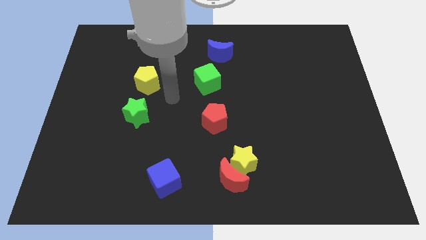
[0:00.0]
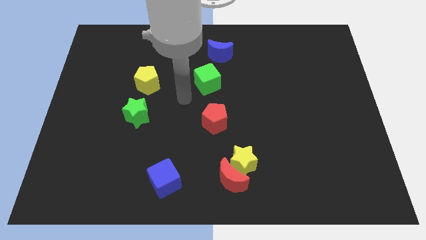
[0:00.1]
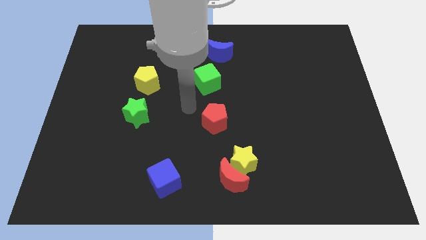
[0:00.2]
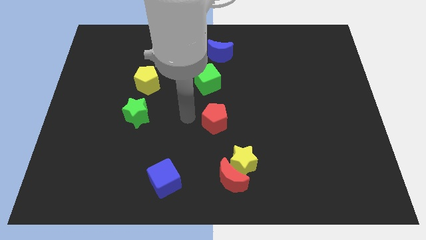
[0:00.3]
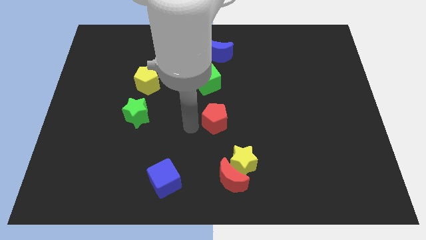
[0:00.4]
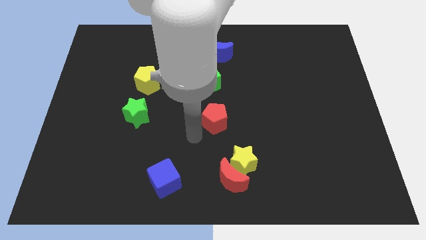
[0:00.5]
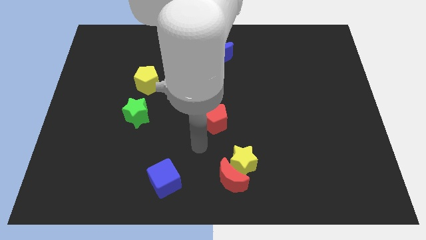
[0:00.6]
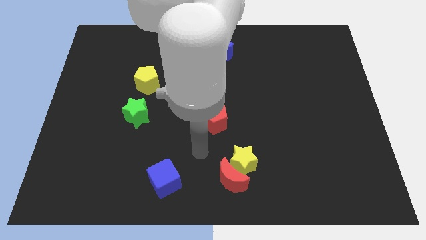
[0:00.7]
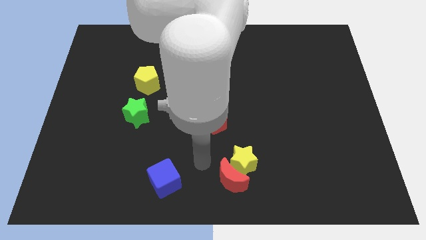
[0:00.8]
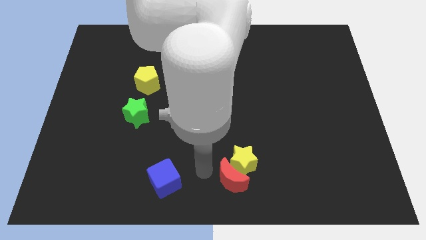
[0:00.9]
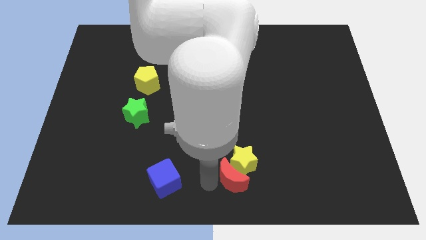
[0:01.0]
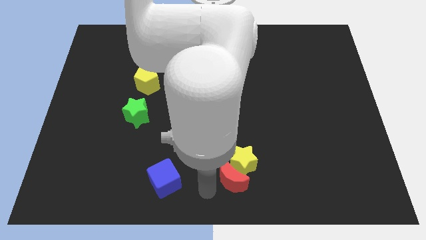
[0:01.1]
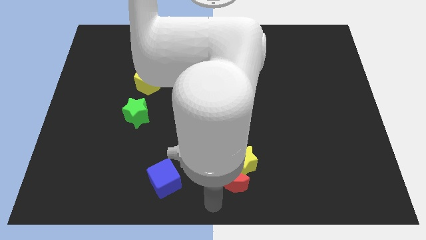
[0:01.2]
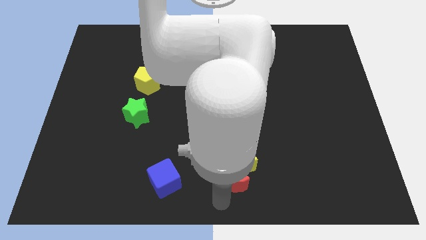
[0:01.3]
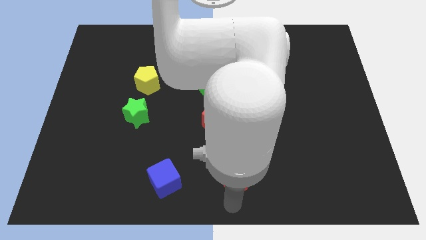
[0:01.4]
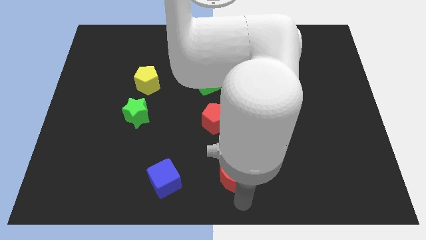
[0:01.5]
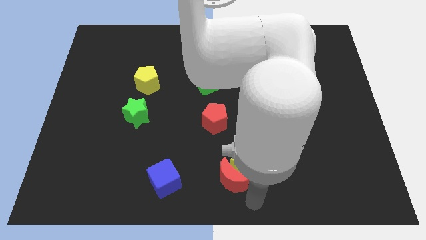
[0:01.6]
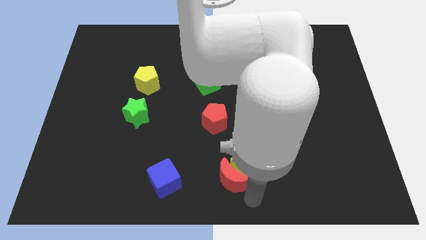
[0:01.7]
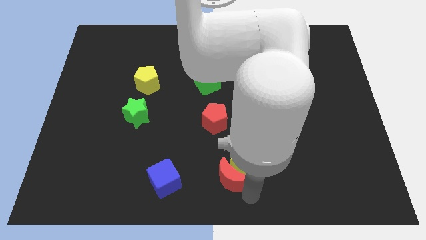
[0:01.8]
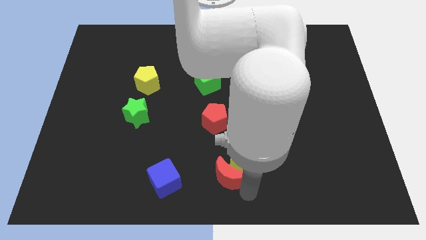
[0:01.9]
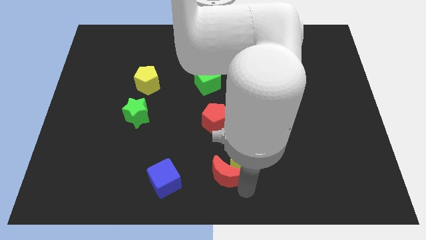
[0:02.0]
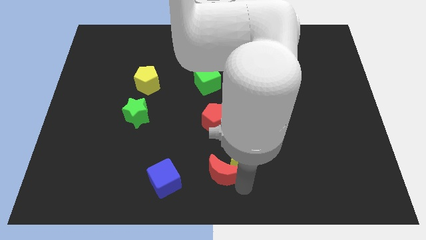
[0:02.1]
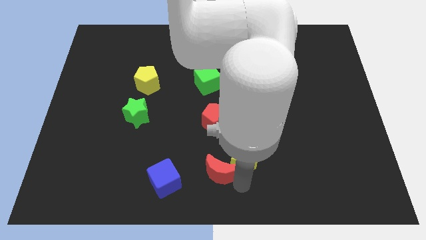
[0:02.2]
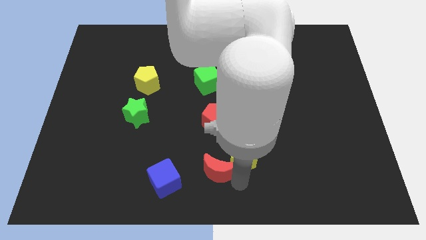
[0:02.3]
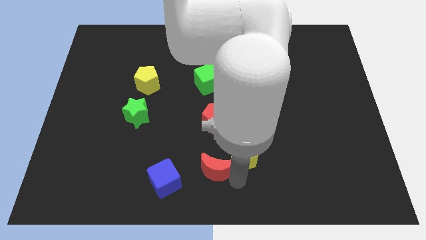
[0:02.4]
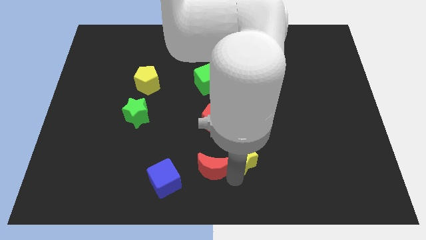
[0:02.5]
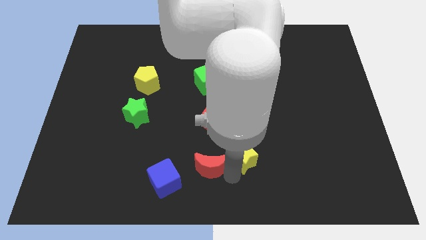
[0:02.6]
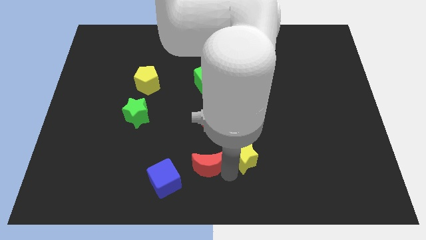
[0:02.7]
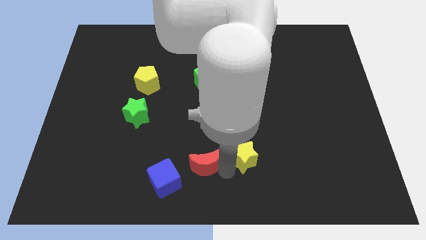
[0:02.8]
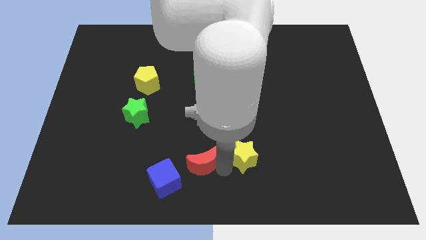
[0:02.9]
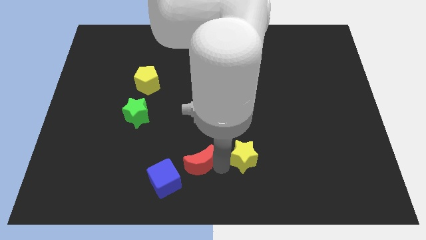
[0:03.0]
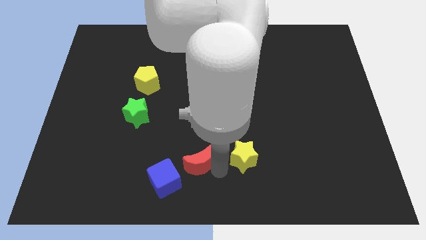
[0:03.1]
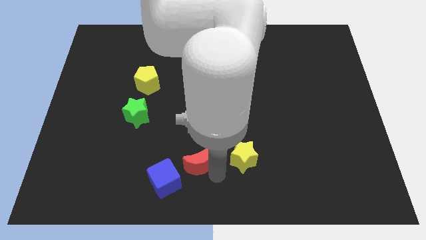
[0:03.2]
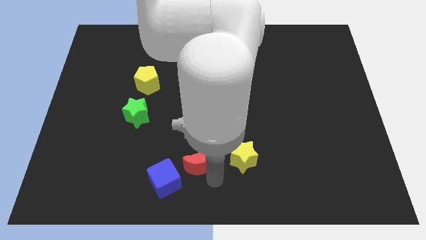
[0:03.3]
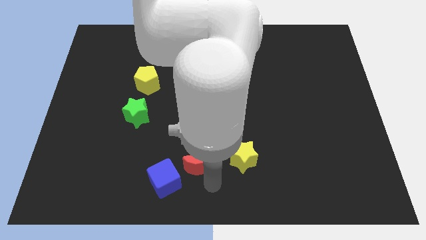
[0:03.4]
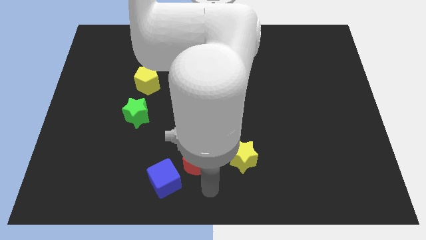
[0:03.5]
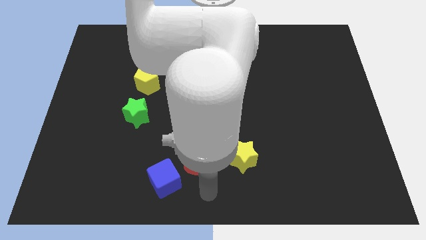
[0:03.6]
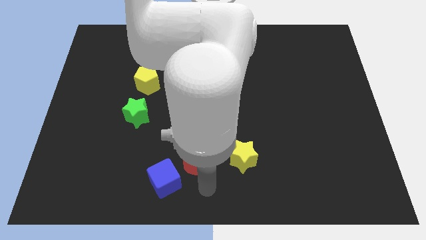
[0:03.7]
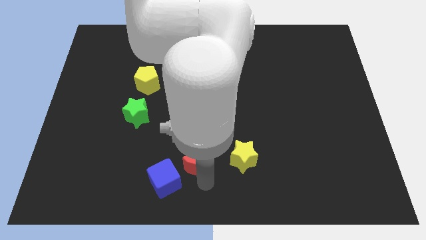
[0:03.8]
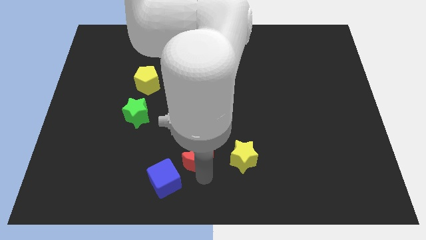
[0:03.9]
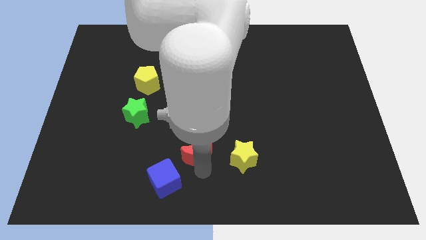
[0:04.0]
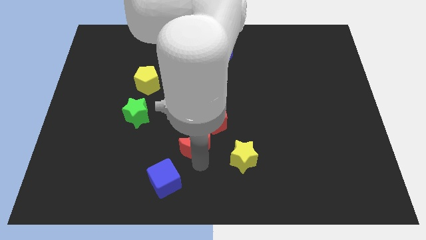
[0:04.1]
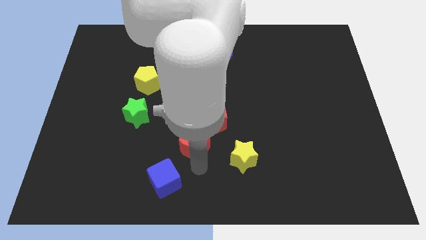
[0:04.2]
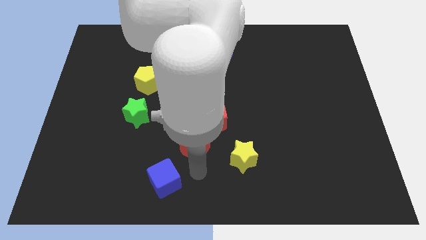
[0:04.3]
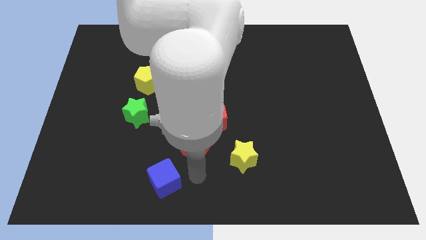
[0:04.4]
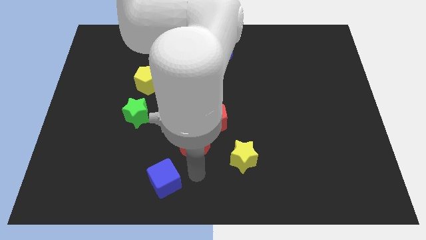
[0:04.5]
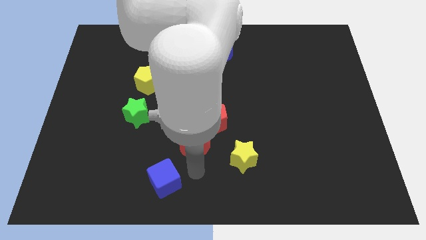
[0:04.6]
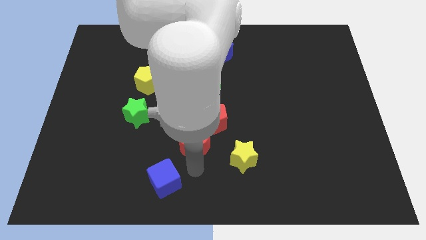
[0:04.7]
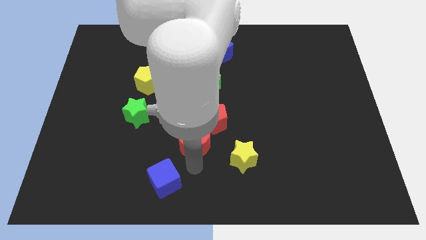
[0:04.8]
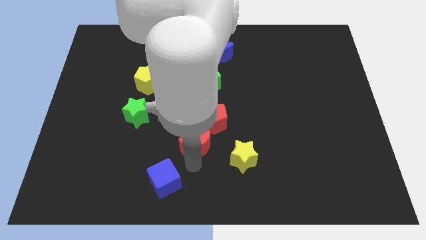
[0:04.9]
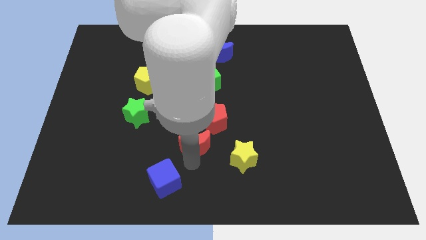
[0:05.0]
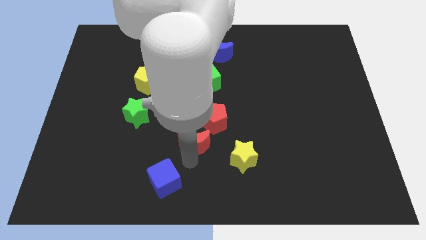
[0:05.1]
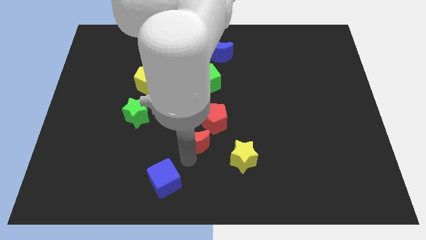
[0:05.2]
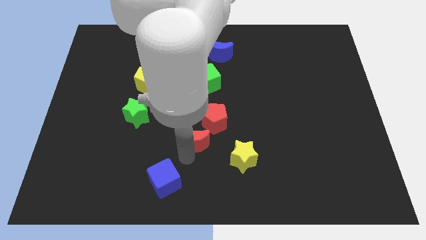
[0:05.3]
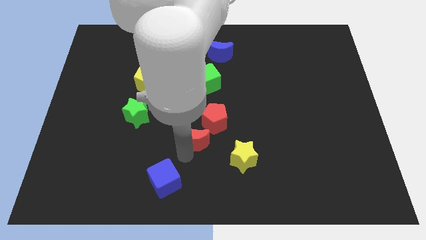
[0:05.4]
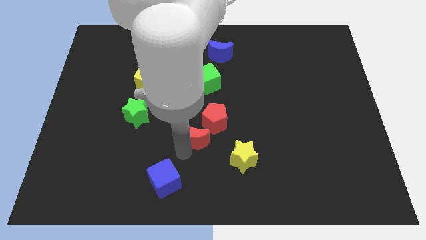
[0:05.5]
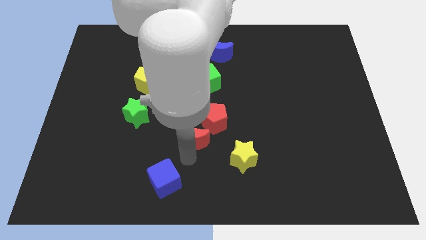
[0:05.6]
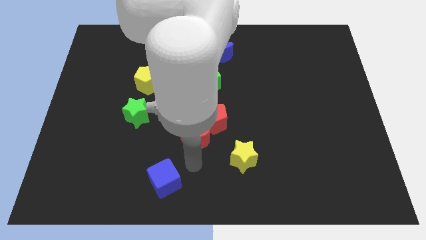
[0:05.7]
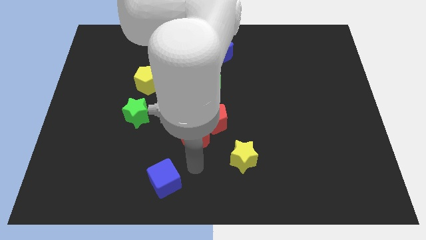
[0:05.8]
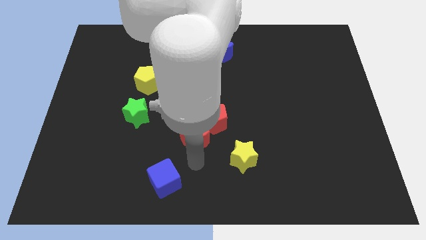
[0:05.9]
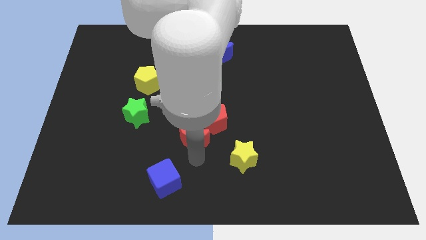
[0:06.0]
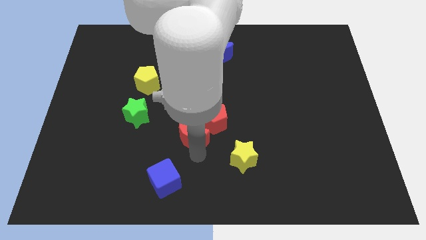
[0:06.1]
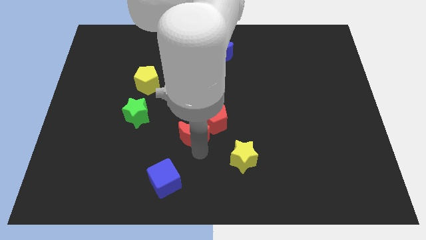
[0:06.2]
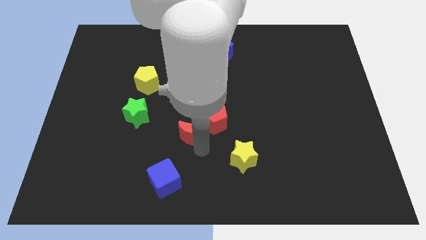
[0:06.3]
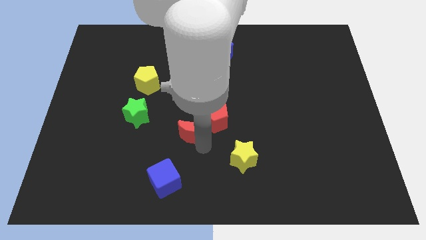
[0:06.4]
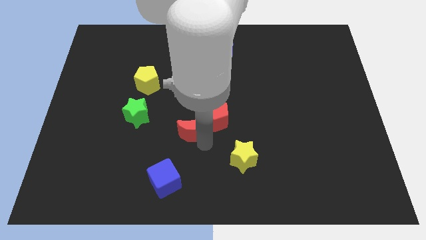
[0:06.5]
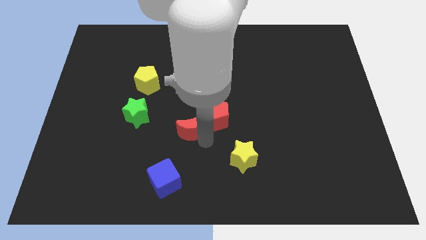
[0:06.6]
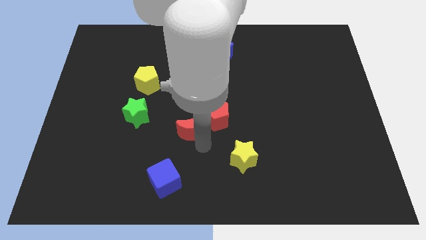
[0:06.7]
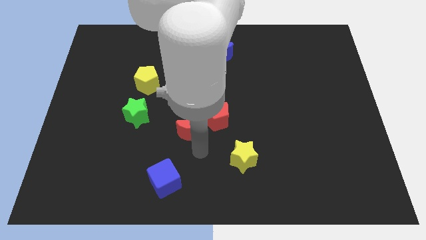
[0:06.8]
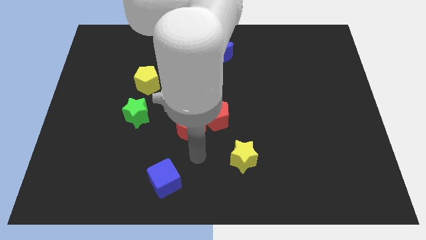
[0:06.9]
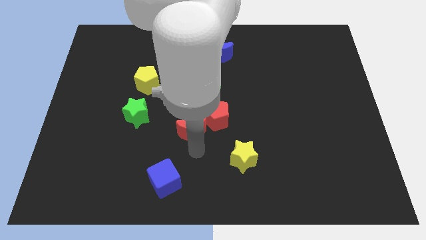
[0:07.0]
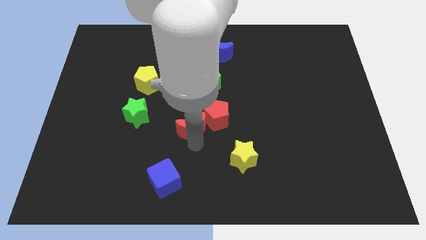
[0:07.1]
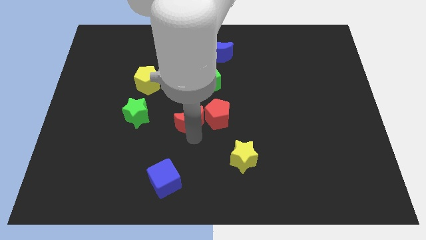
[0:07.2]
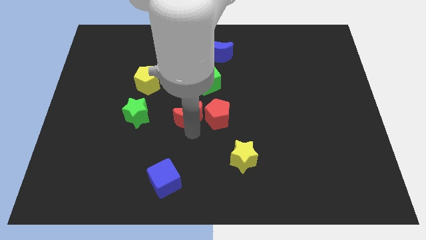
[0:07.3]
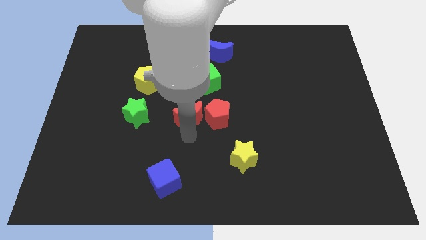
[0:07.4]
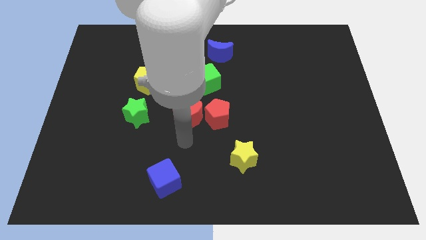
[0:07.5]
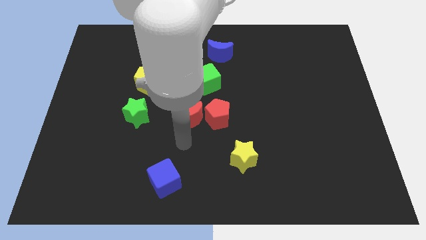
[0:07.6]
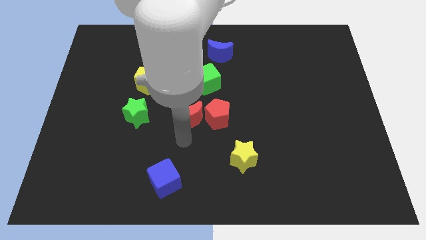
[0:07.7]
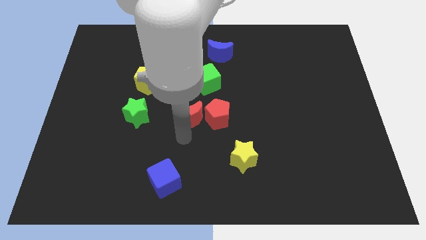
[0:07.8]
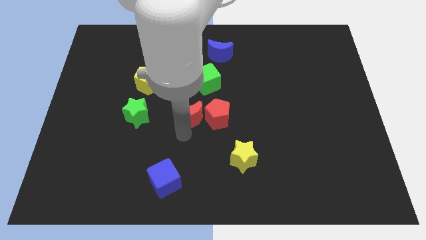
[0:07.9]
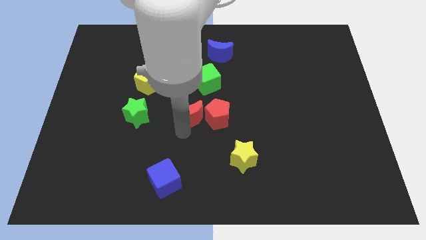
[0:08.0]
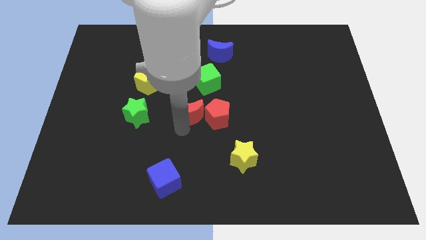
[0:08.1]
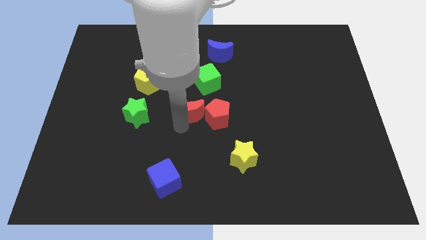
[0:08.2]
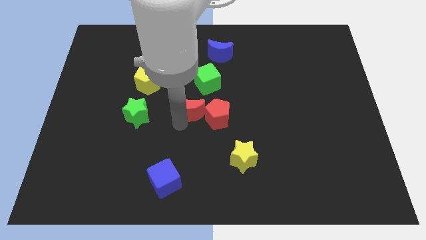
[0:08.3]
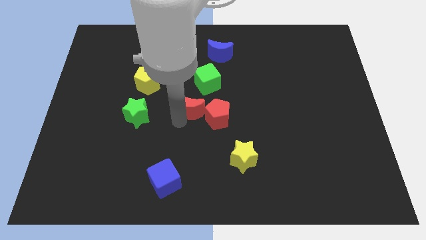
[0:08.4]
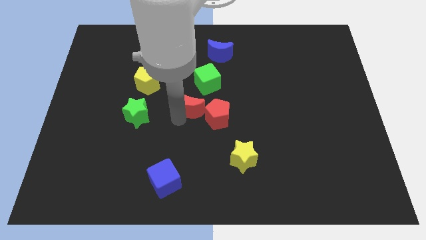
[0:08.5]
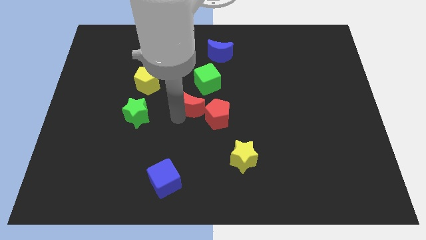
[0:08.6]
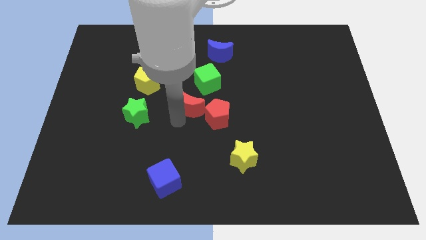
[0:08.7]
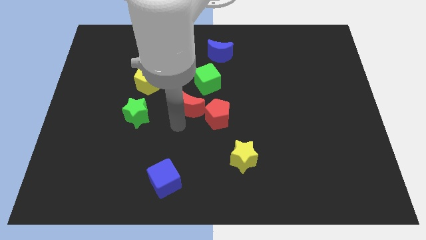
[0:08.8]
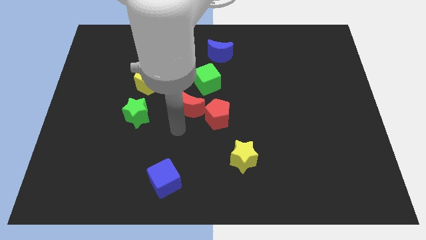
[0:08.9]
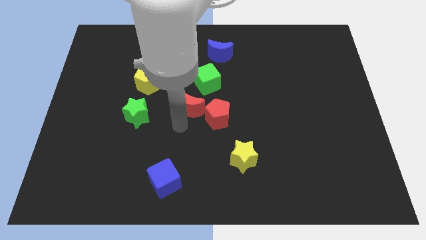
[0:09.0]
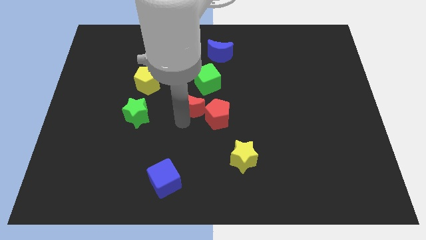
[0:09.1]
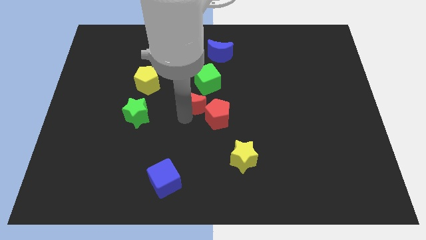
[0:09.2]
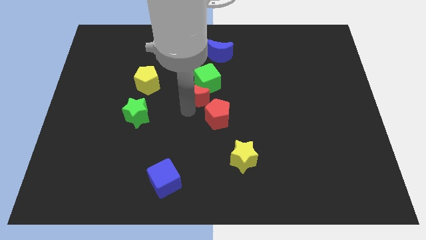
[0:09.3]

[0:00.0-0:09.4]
push the red moon to the green cube
